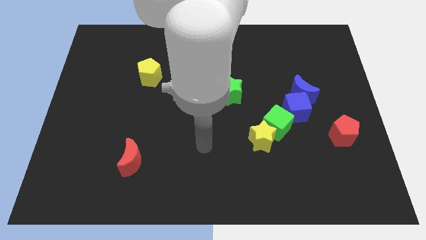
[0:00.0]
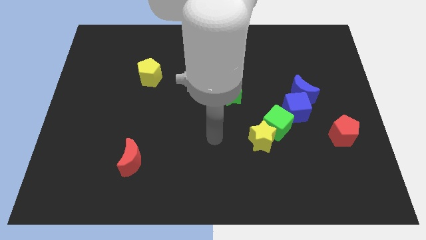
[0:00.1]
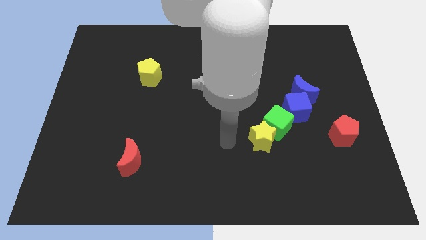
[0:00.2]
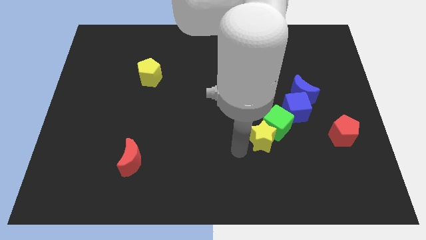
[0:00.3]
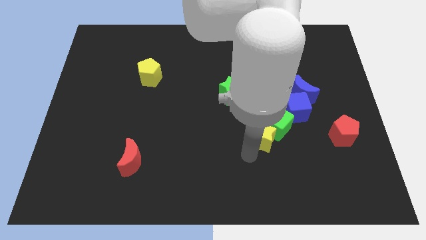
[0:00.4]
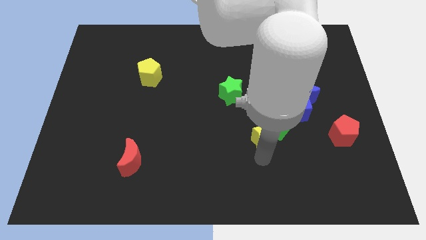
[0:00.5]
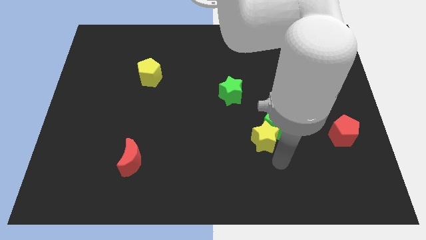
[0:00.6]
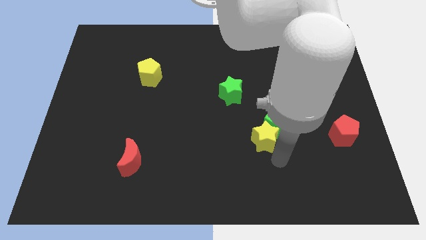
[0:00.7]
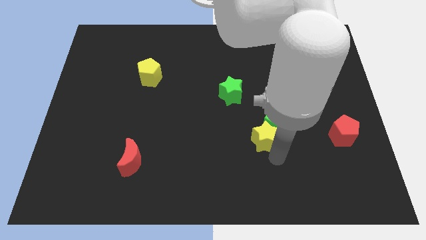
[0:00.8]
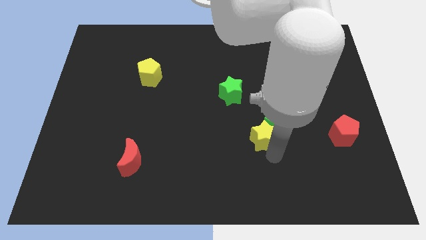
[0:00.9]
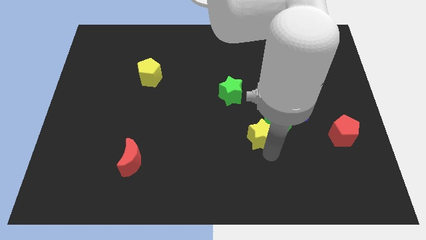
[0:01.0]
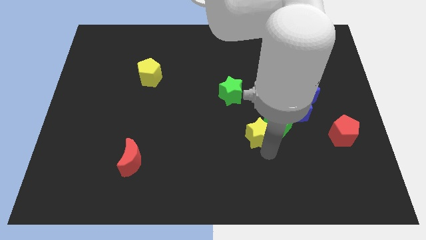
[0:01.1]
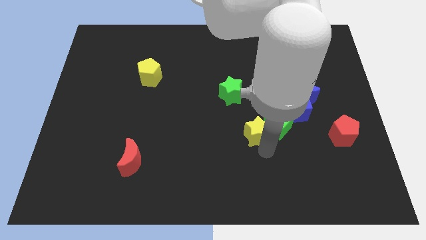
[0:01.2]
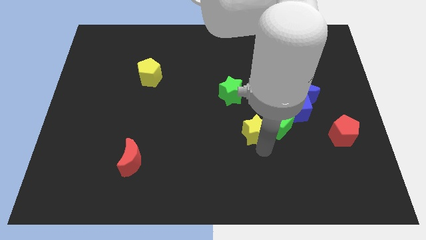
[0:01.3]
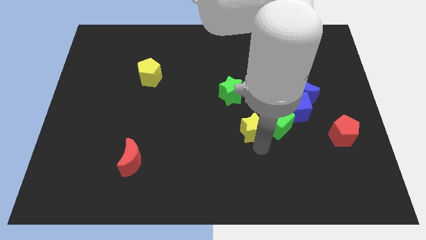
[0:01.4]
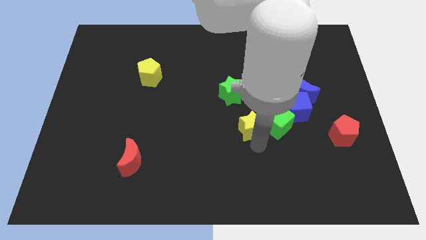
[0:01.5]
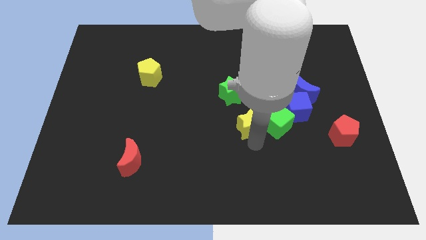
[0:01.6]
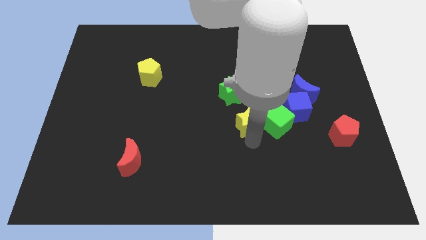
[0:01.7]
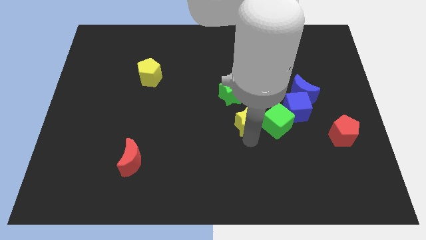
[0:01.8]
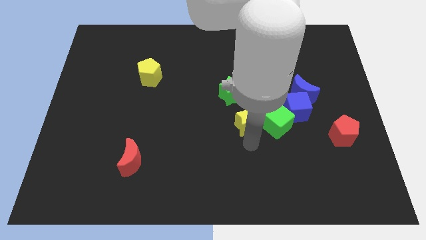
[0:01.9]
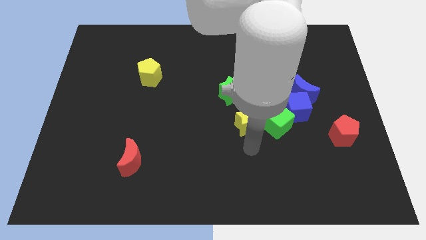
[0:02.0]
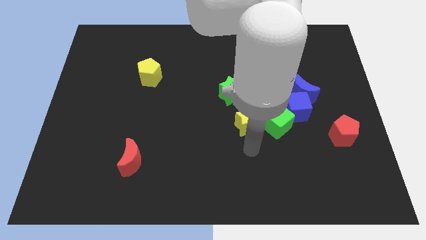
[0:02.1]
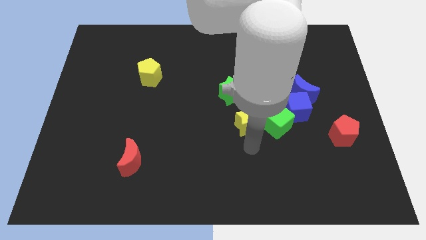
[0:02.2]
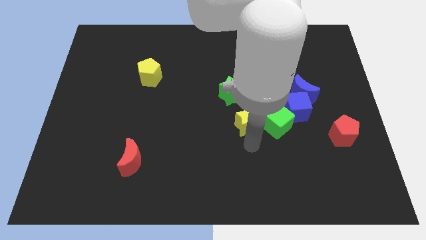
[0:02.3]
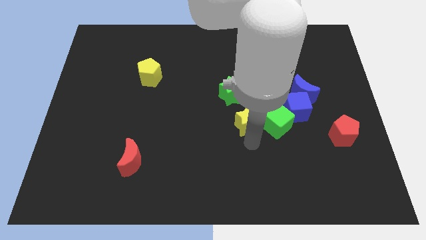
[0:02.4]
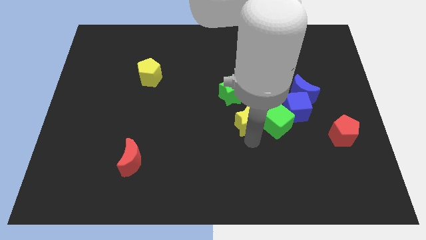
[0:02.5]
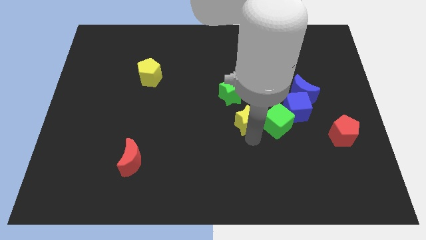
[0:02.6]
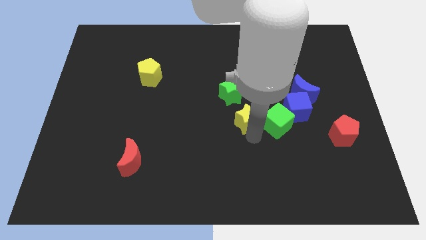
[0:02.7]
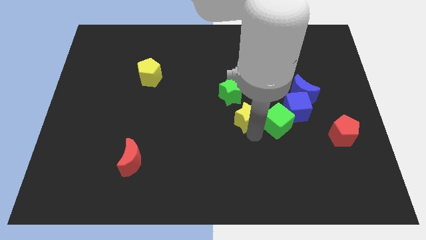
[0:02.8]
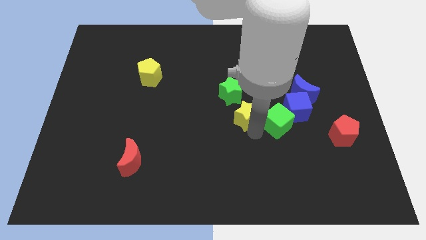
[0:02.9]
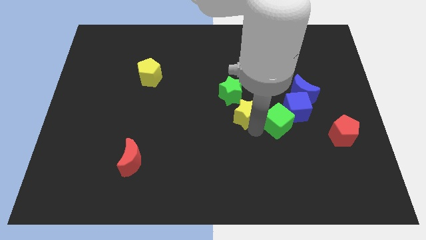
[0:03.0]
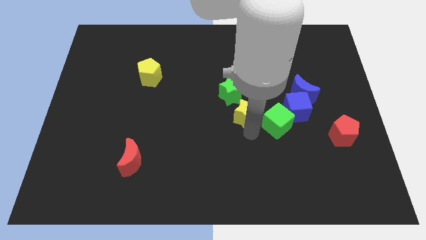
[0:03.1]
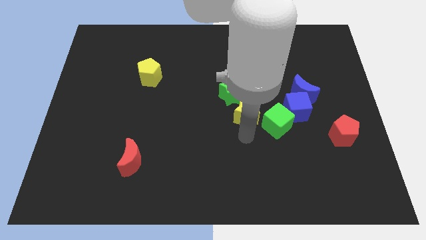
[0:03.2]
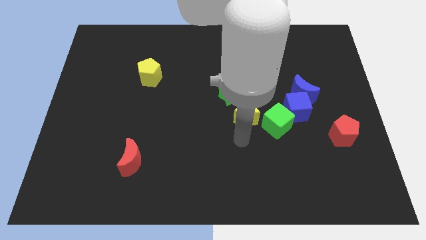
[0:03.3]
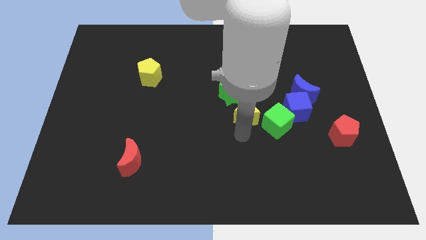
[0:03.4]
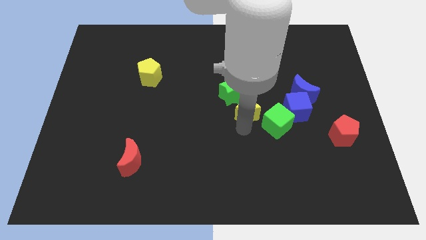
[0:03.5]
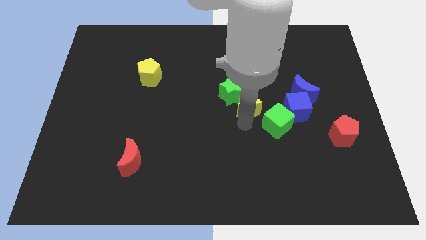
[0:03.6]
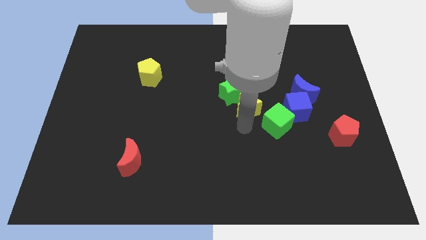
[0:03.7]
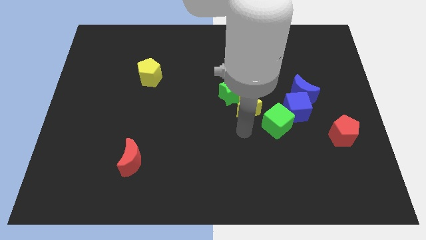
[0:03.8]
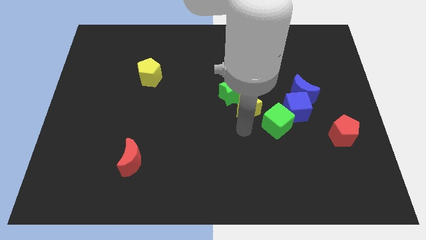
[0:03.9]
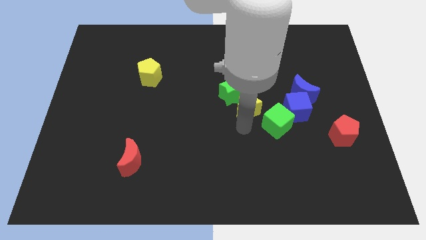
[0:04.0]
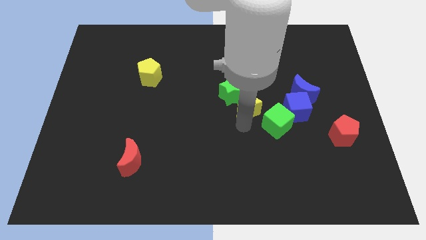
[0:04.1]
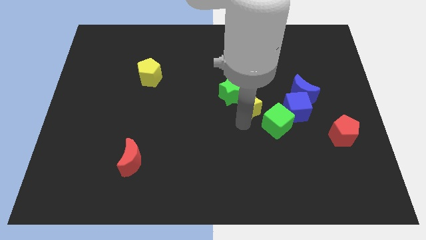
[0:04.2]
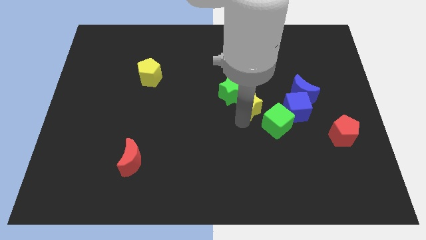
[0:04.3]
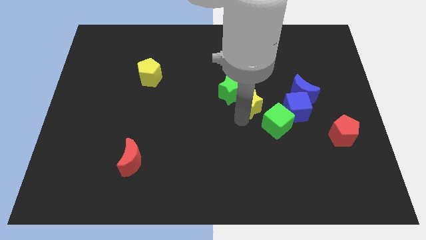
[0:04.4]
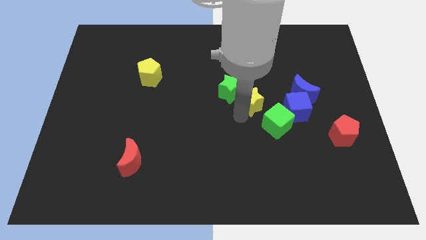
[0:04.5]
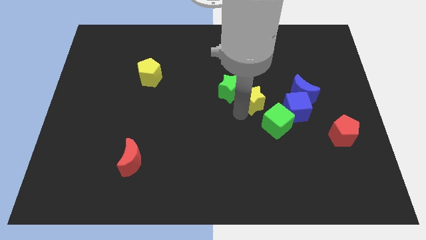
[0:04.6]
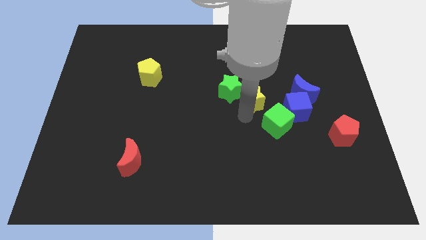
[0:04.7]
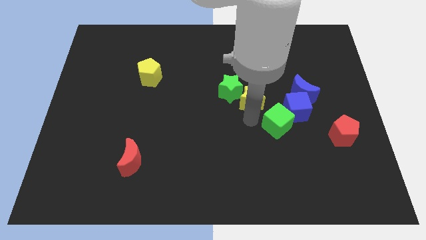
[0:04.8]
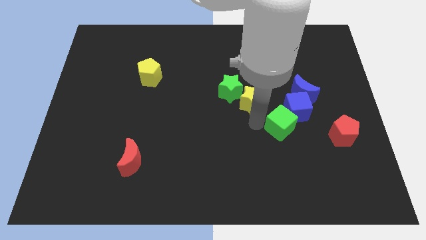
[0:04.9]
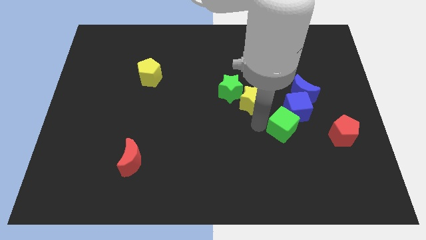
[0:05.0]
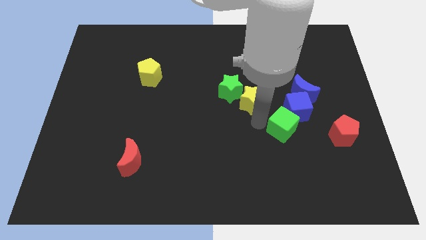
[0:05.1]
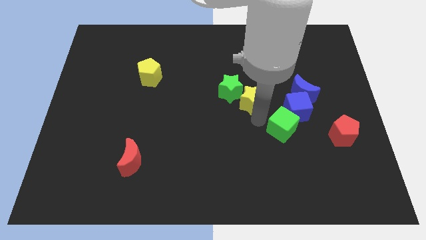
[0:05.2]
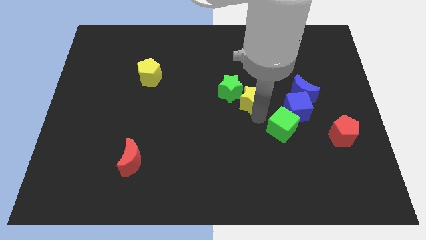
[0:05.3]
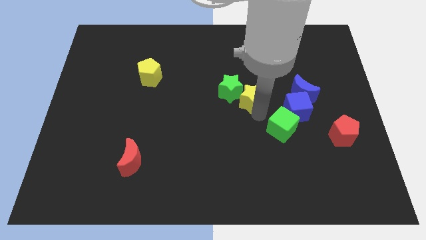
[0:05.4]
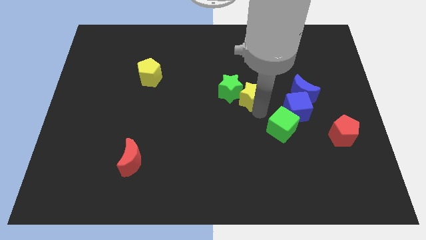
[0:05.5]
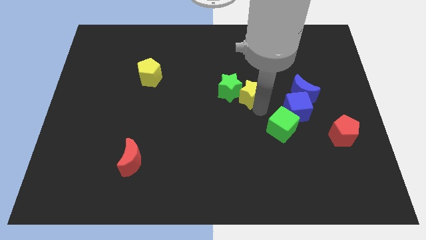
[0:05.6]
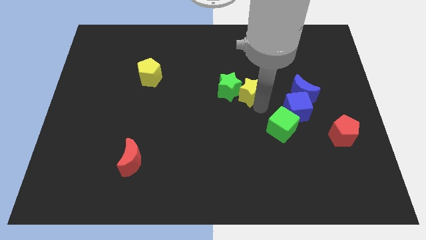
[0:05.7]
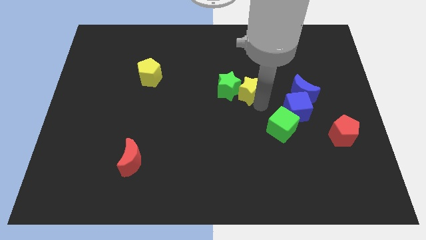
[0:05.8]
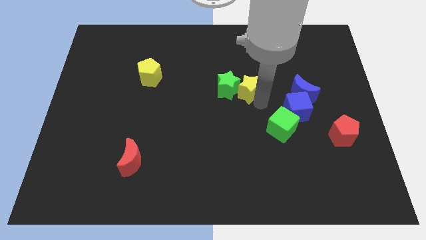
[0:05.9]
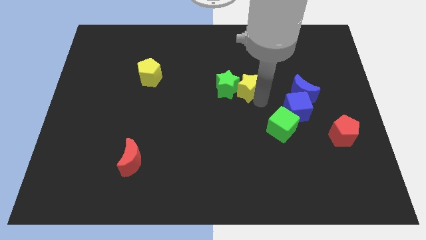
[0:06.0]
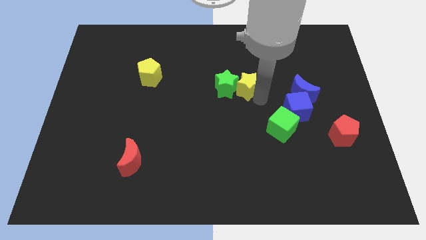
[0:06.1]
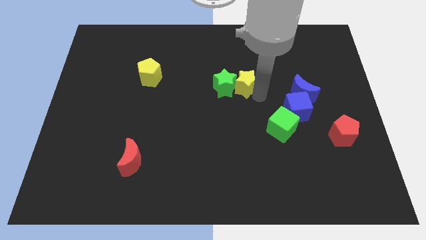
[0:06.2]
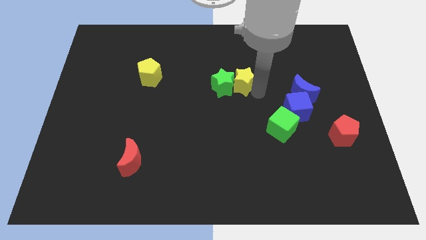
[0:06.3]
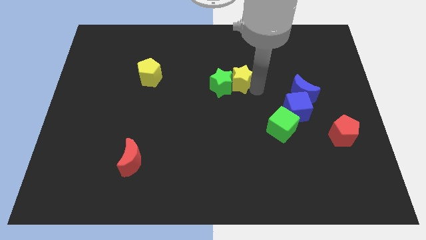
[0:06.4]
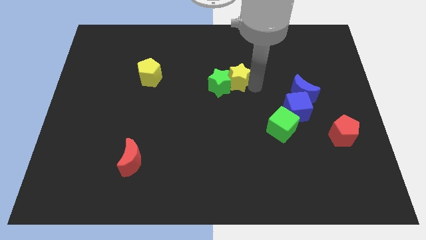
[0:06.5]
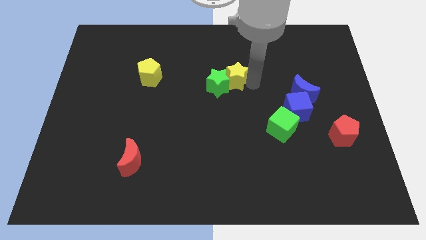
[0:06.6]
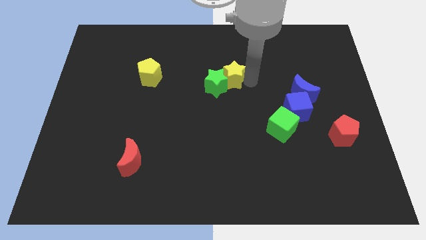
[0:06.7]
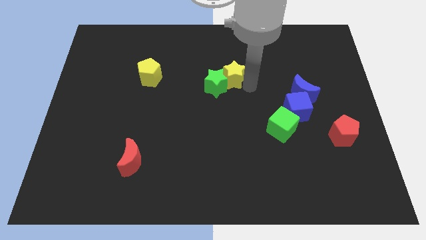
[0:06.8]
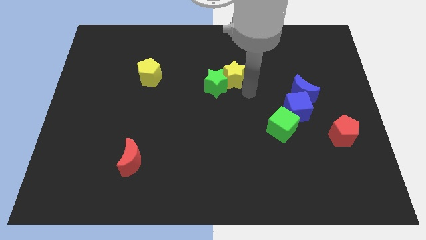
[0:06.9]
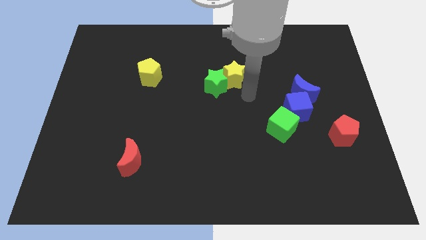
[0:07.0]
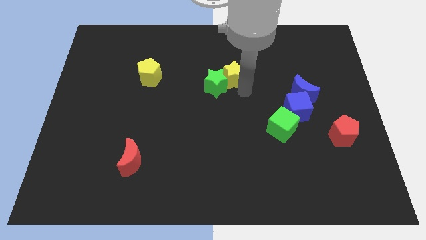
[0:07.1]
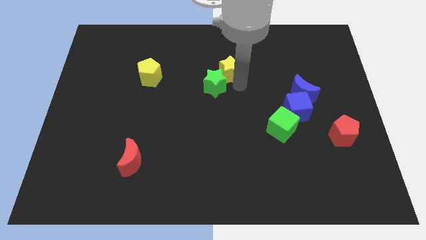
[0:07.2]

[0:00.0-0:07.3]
push the yellow star above the green star
